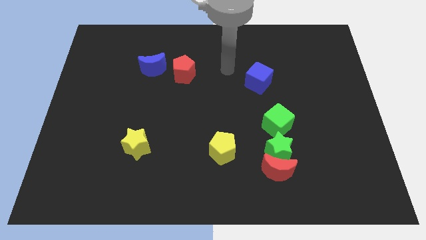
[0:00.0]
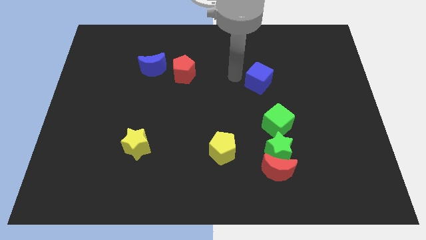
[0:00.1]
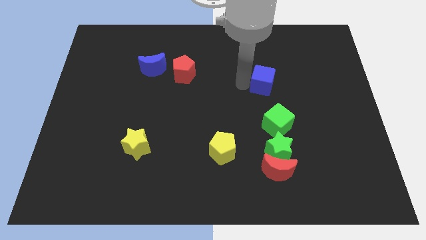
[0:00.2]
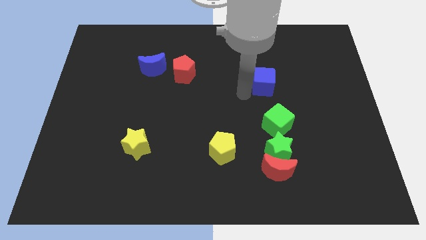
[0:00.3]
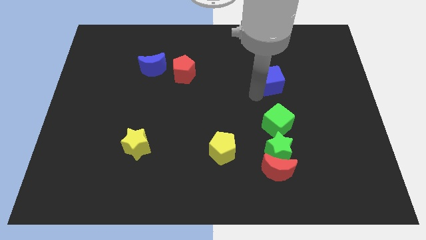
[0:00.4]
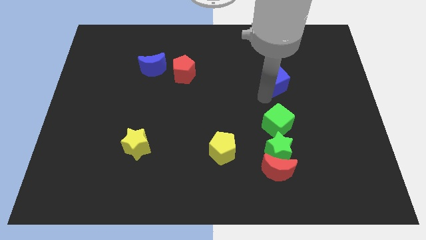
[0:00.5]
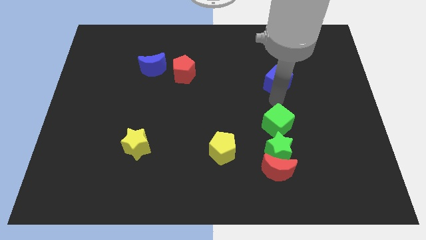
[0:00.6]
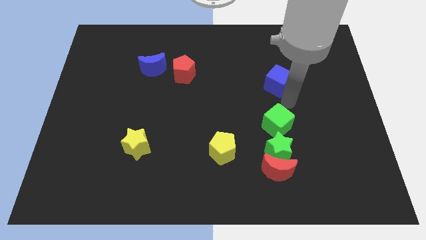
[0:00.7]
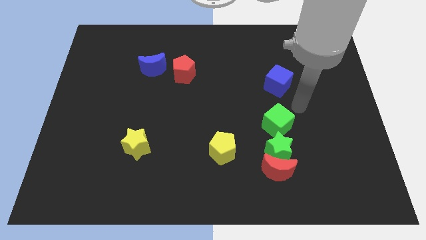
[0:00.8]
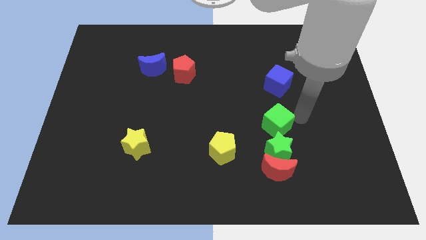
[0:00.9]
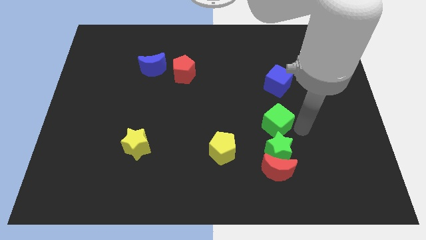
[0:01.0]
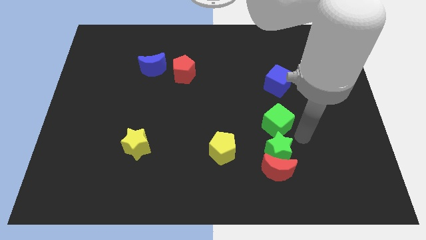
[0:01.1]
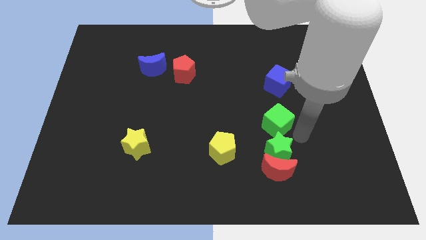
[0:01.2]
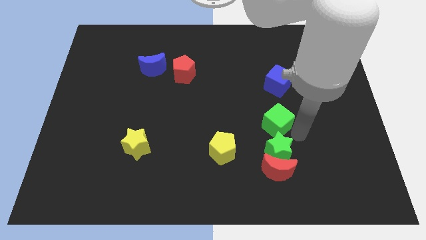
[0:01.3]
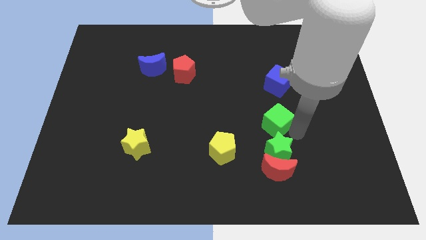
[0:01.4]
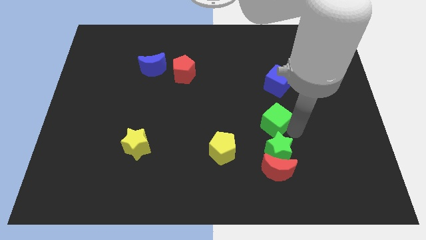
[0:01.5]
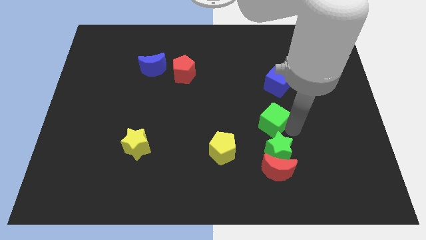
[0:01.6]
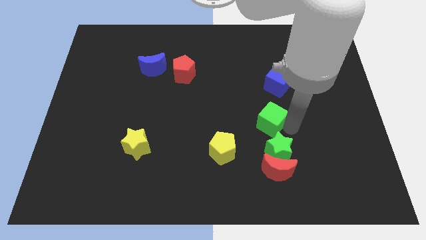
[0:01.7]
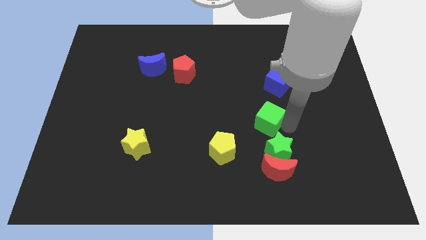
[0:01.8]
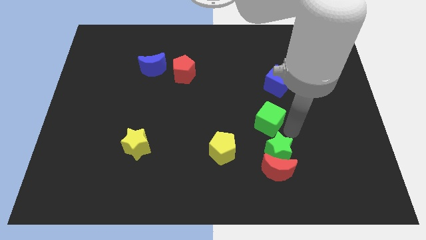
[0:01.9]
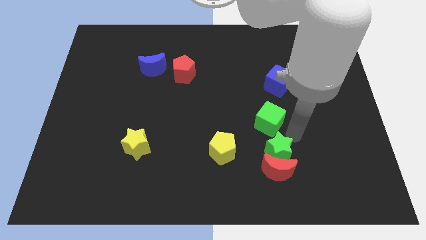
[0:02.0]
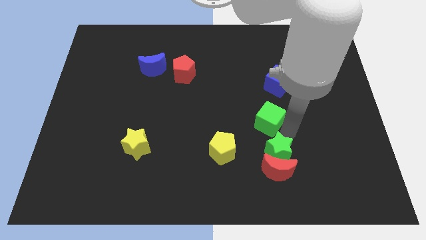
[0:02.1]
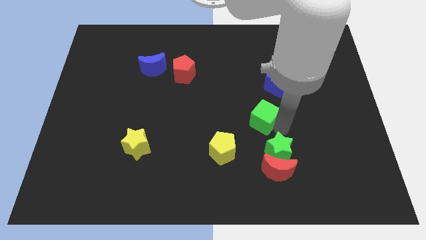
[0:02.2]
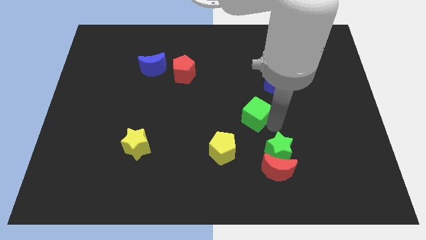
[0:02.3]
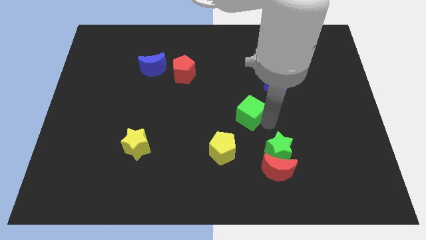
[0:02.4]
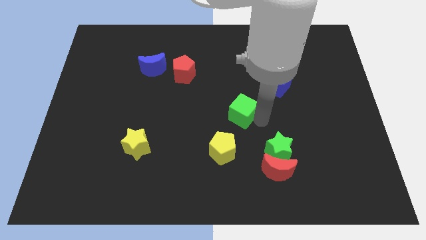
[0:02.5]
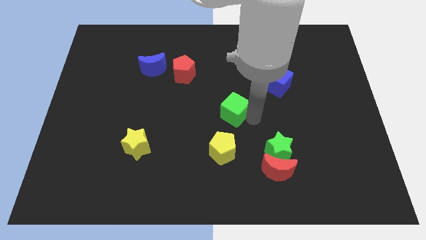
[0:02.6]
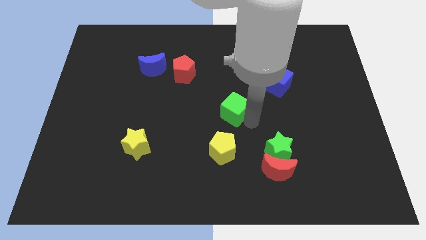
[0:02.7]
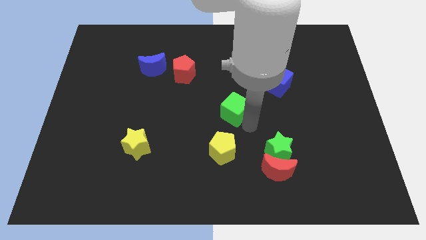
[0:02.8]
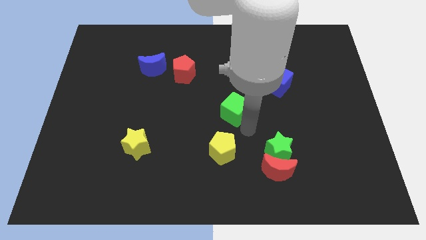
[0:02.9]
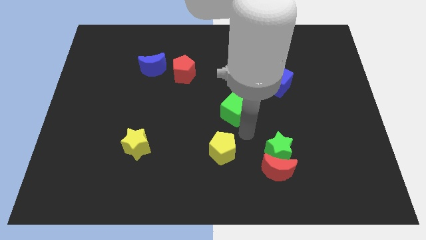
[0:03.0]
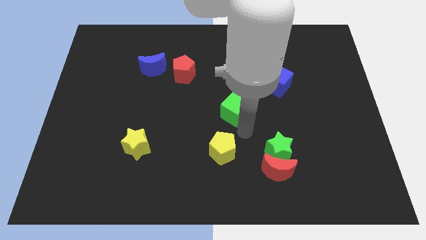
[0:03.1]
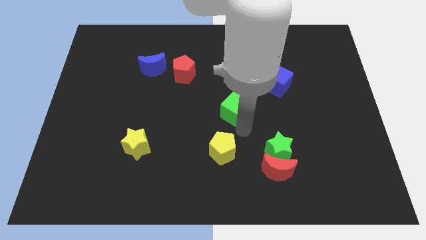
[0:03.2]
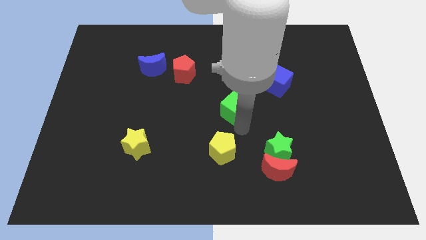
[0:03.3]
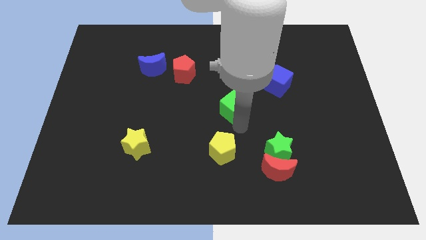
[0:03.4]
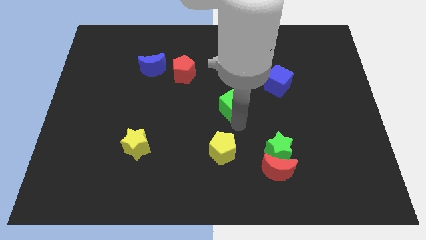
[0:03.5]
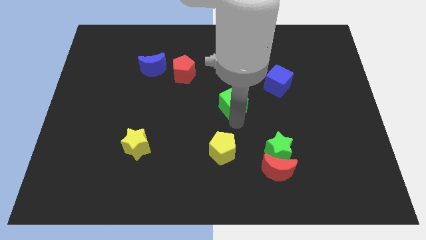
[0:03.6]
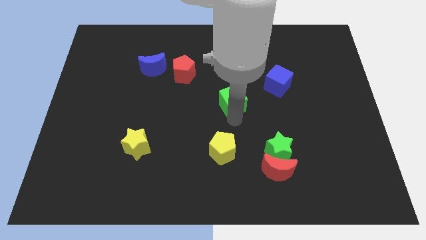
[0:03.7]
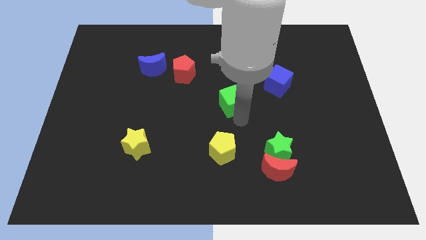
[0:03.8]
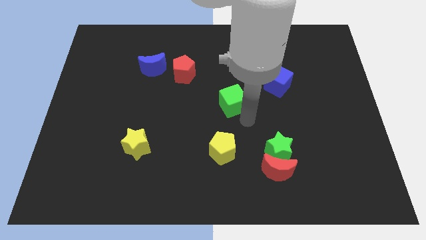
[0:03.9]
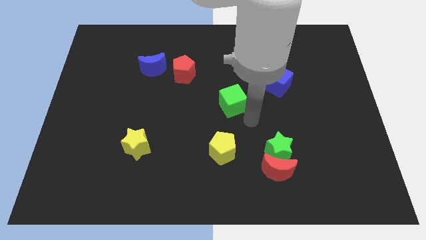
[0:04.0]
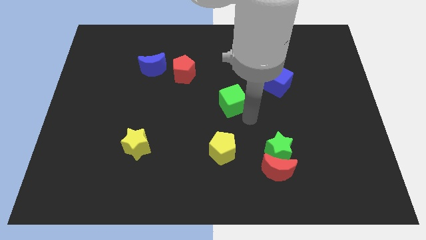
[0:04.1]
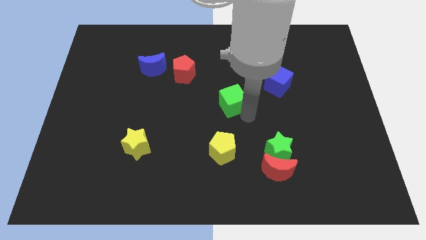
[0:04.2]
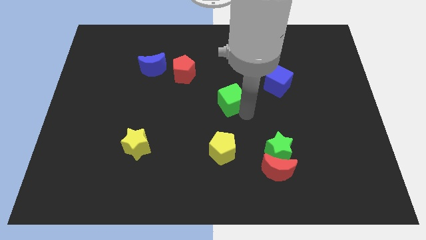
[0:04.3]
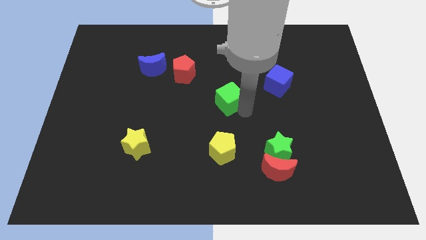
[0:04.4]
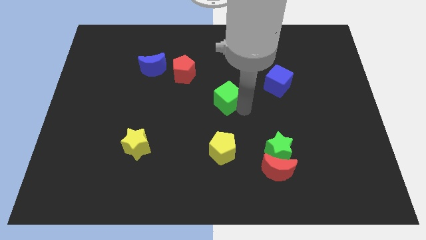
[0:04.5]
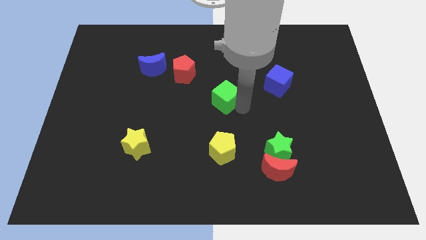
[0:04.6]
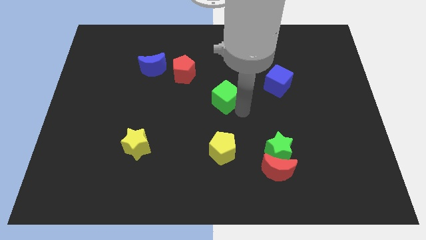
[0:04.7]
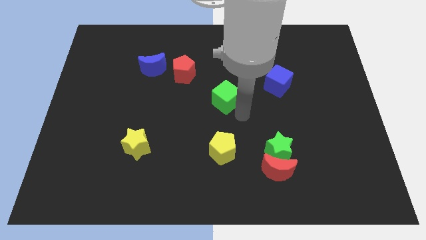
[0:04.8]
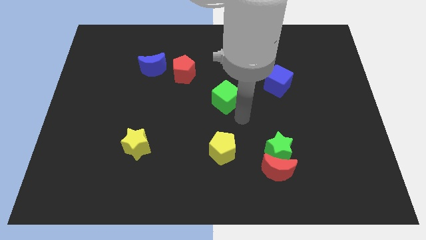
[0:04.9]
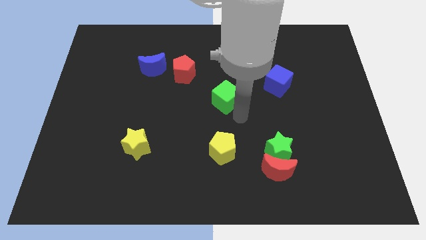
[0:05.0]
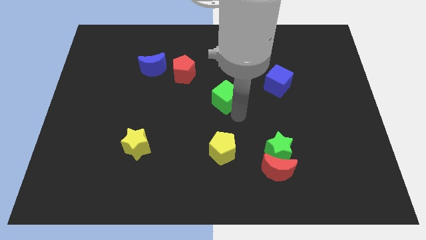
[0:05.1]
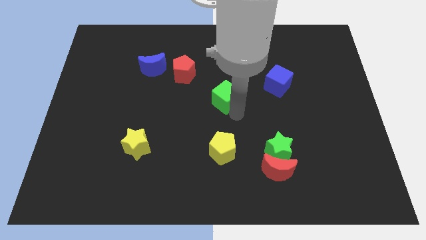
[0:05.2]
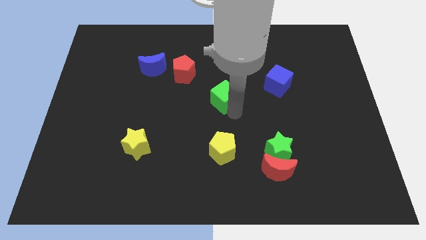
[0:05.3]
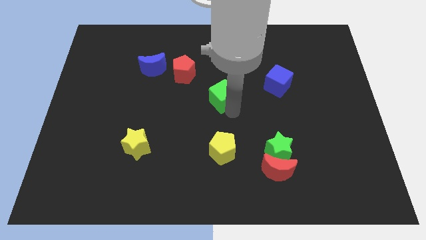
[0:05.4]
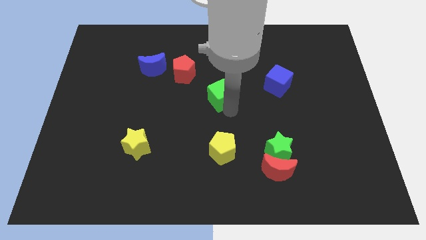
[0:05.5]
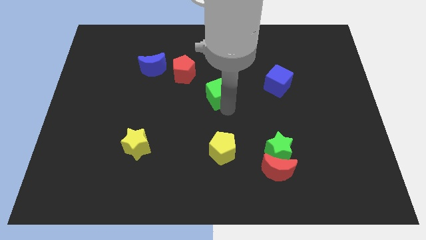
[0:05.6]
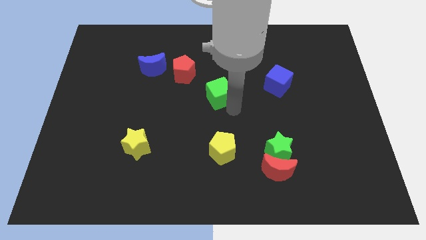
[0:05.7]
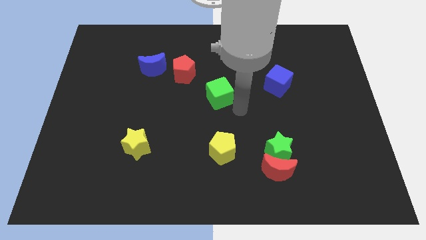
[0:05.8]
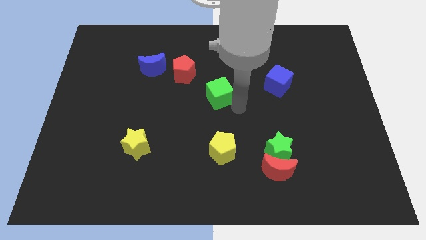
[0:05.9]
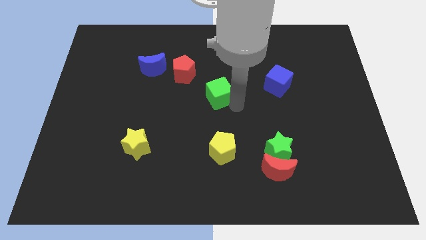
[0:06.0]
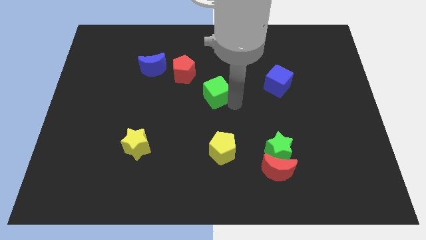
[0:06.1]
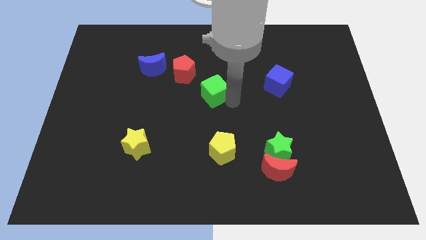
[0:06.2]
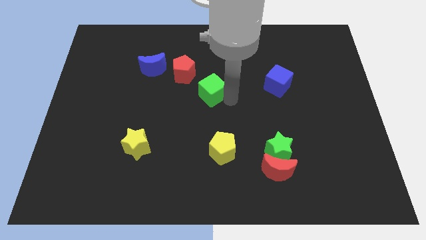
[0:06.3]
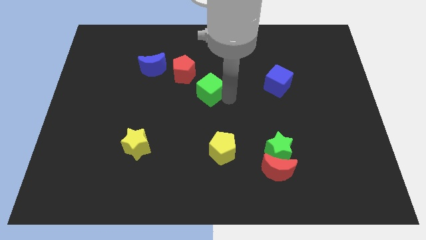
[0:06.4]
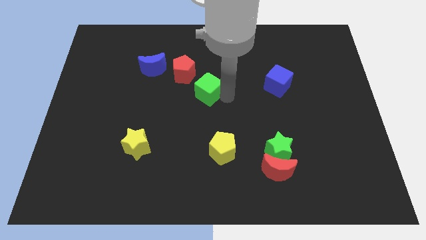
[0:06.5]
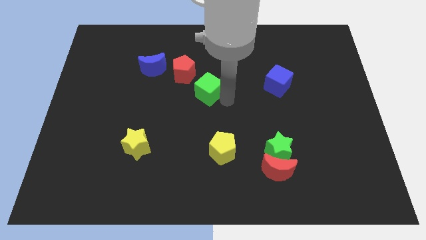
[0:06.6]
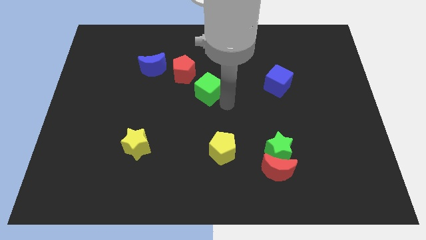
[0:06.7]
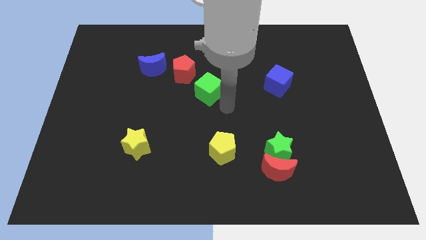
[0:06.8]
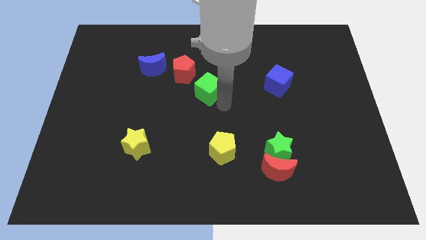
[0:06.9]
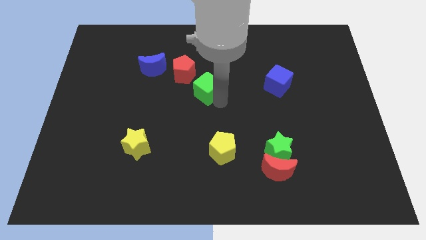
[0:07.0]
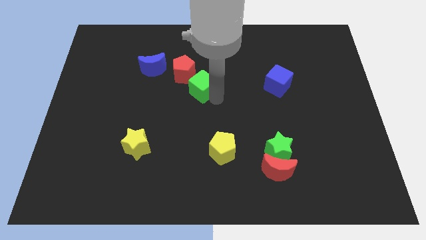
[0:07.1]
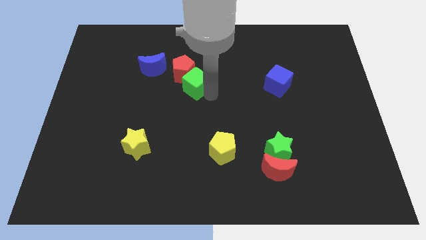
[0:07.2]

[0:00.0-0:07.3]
push the green cube next to the red pentagon

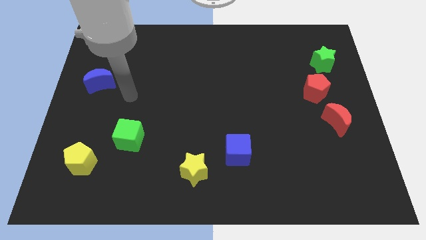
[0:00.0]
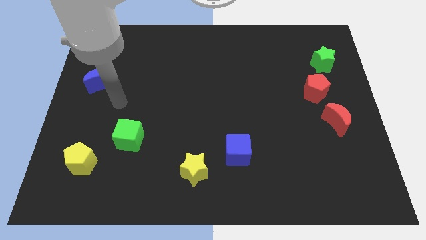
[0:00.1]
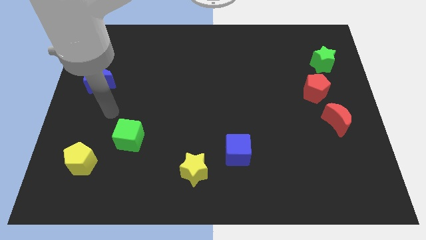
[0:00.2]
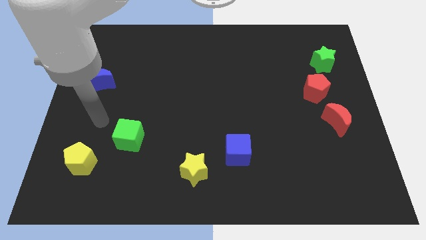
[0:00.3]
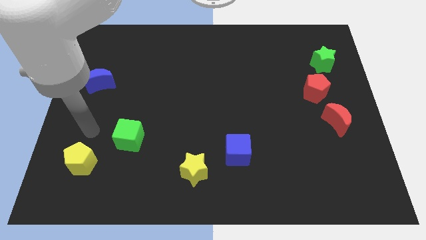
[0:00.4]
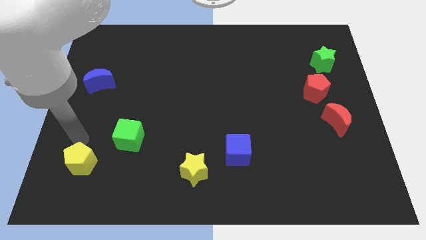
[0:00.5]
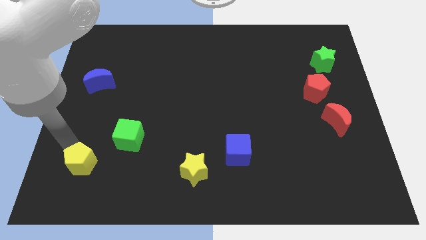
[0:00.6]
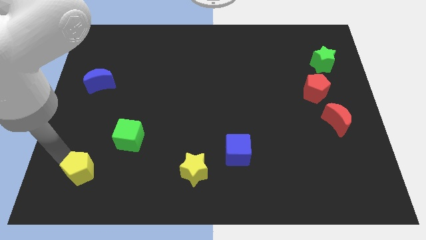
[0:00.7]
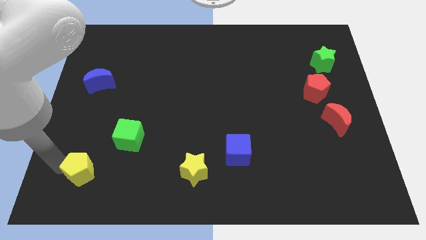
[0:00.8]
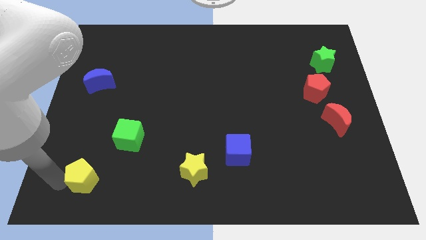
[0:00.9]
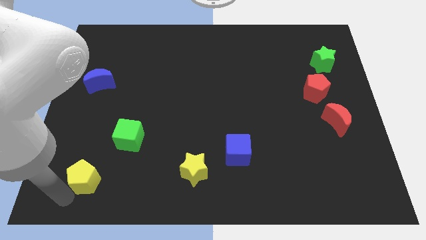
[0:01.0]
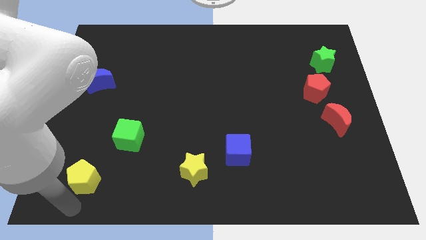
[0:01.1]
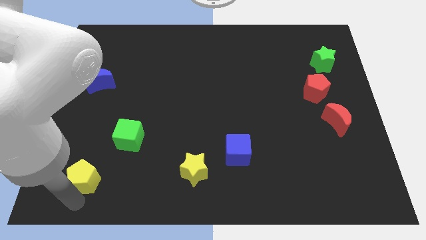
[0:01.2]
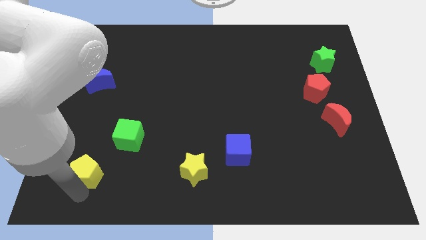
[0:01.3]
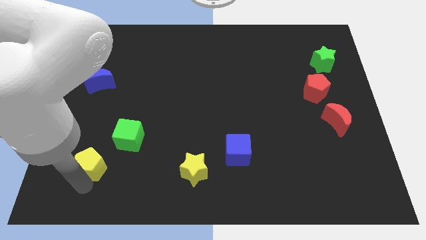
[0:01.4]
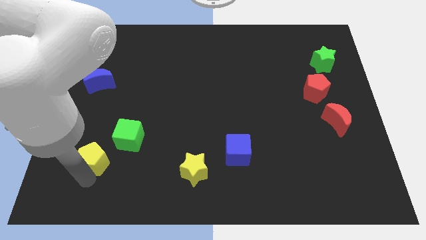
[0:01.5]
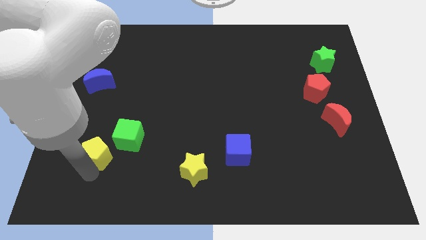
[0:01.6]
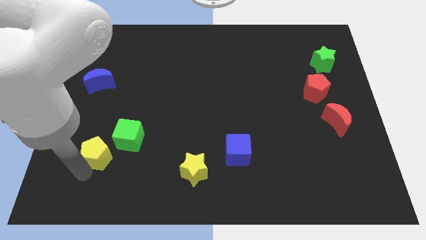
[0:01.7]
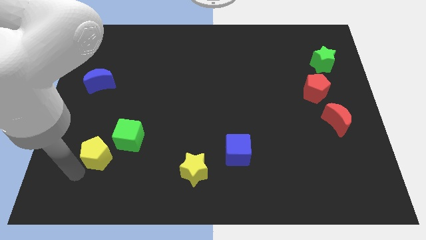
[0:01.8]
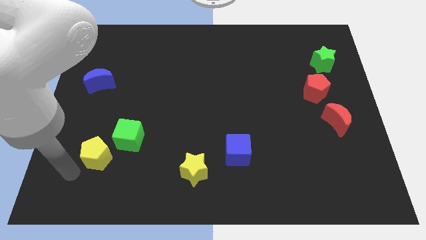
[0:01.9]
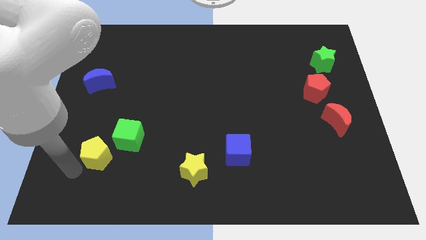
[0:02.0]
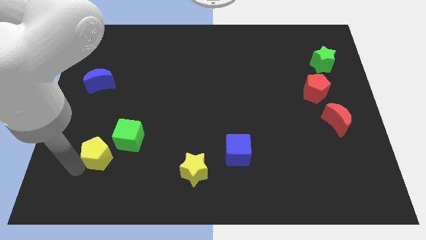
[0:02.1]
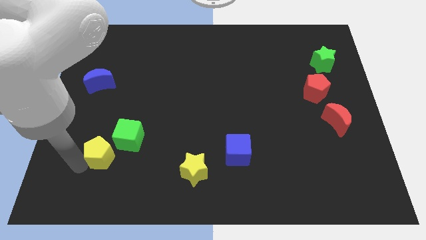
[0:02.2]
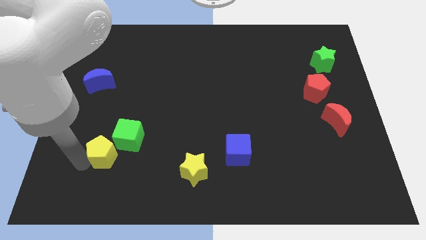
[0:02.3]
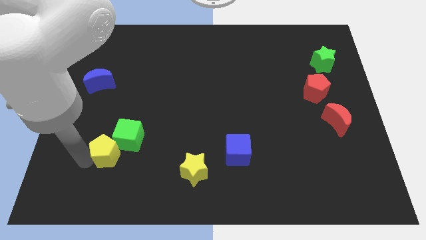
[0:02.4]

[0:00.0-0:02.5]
slide the yellow pentagon close to the green cube
